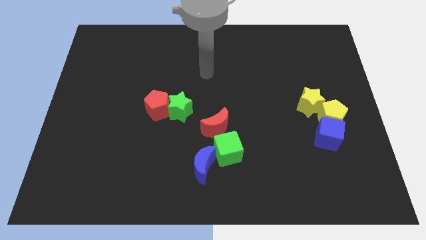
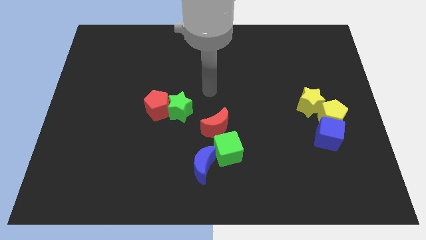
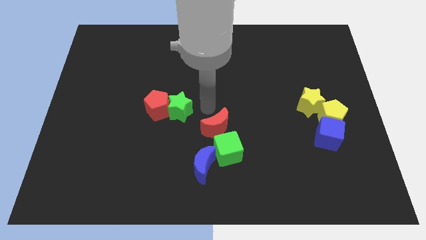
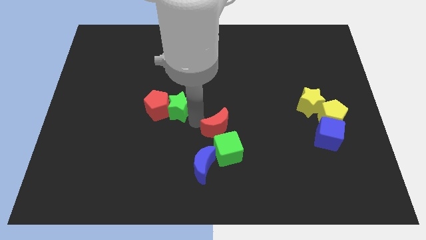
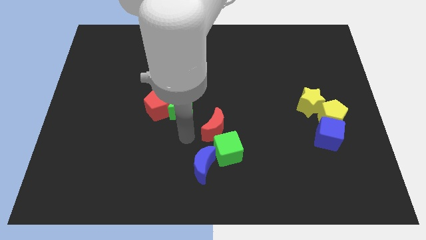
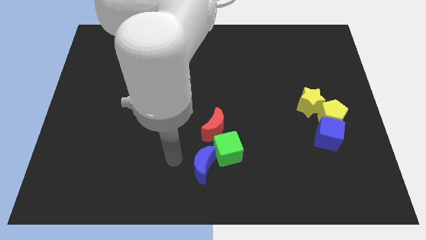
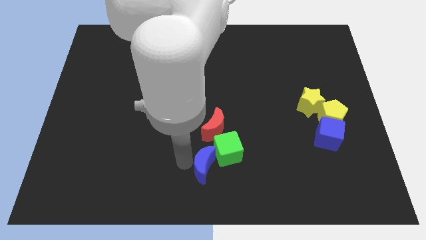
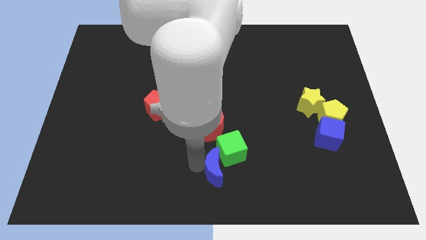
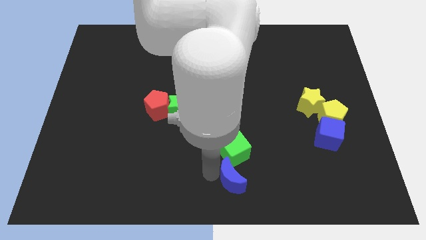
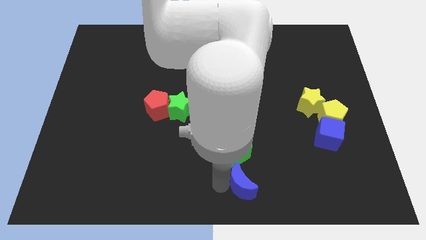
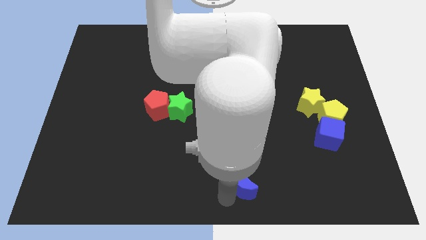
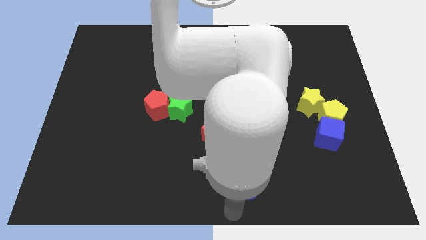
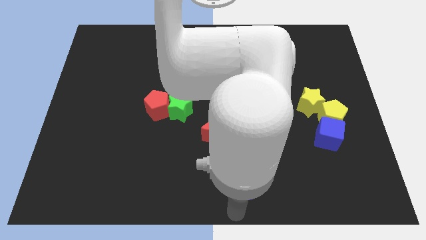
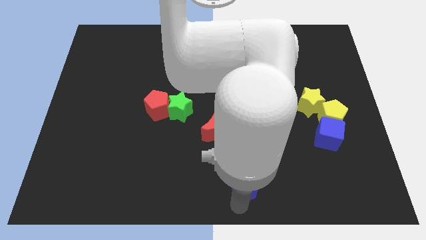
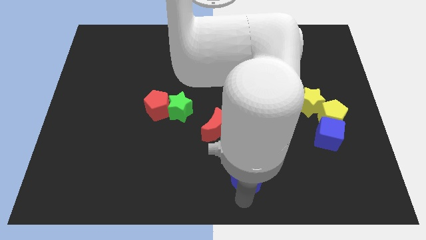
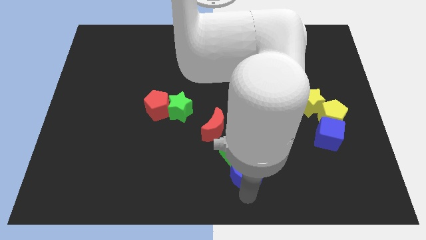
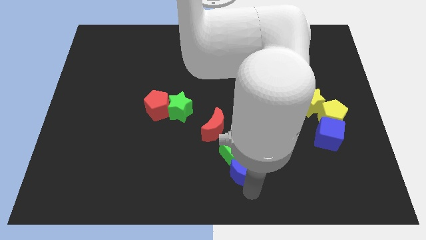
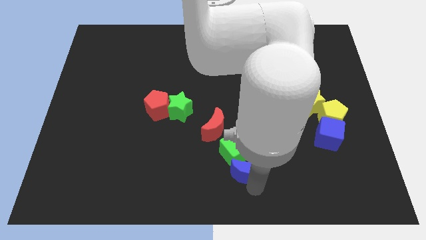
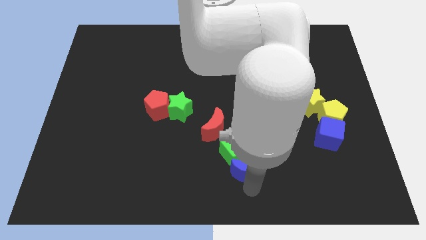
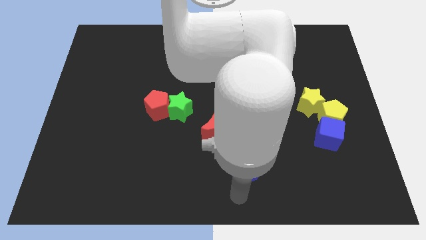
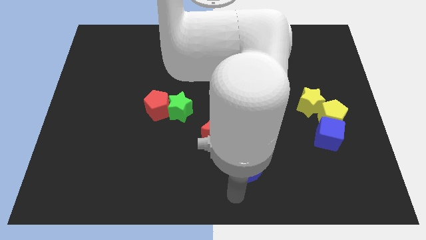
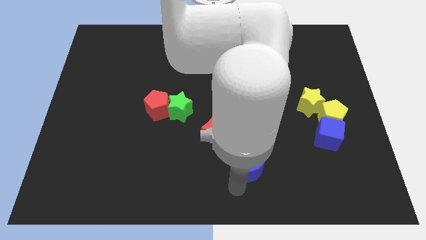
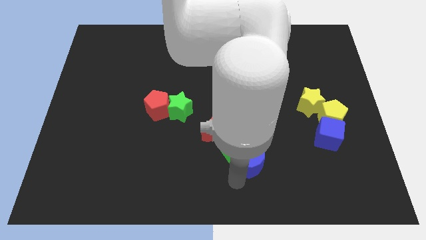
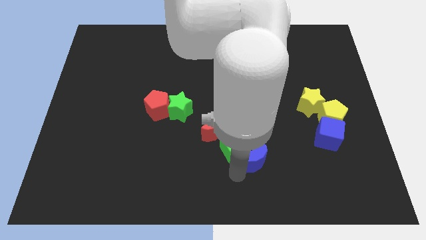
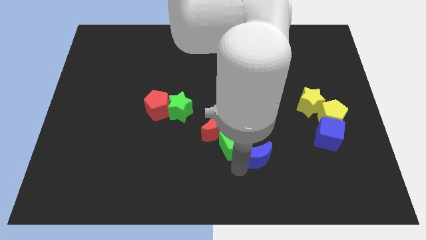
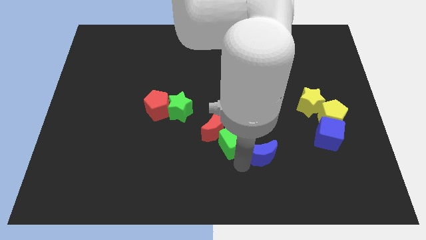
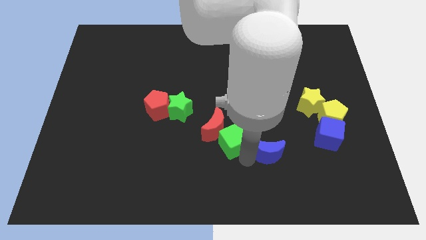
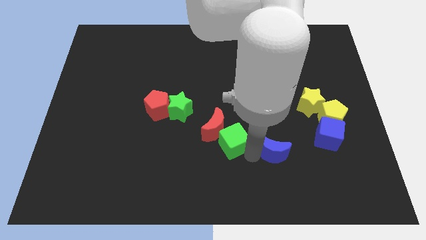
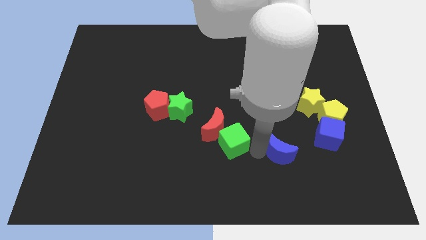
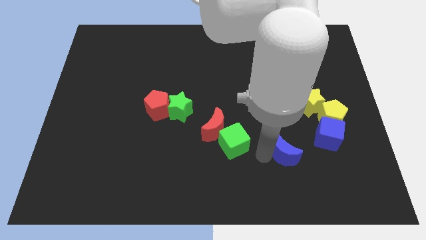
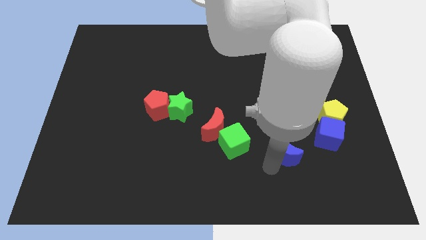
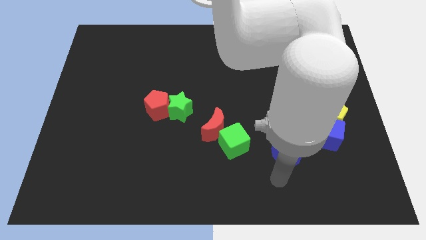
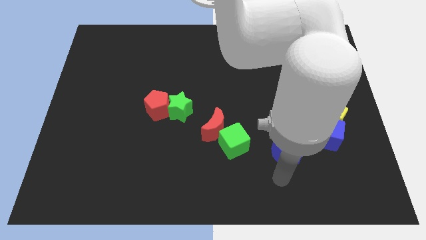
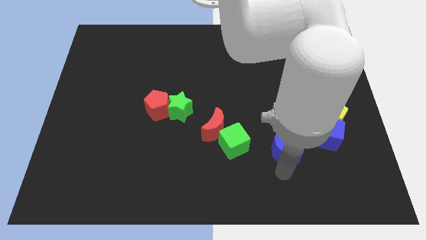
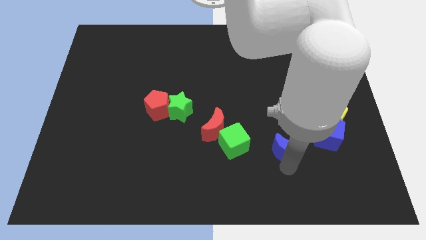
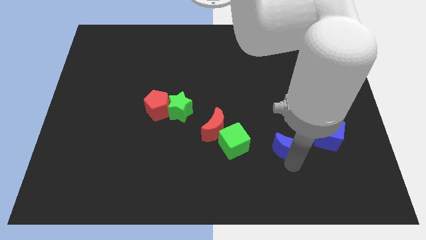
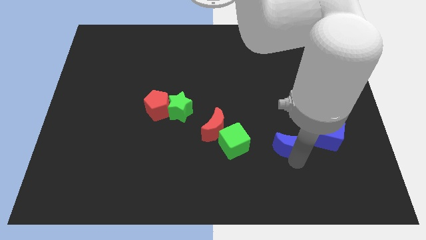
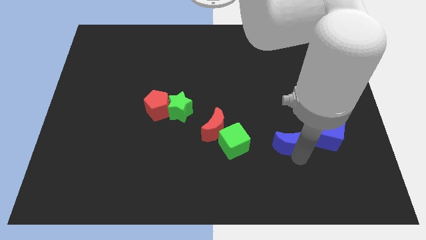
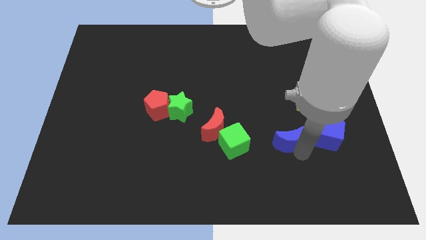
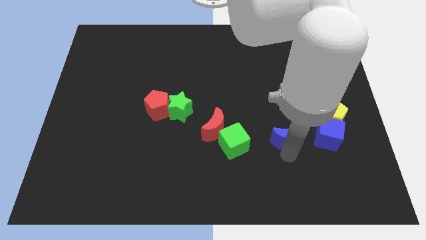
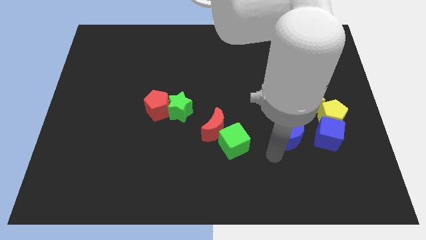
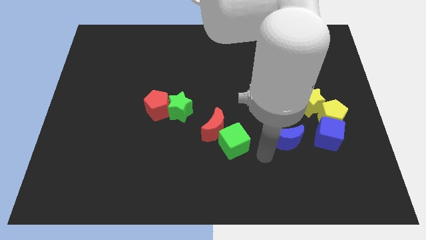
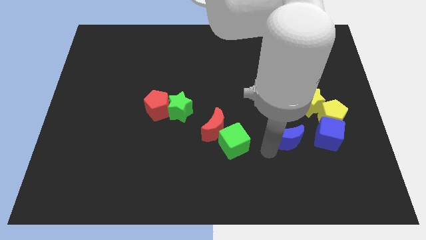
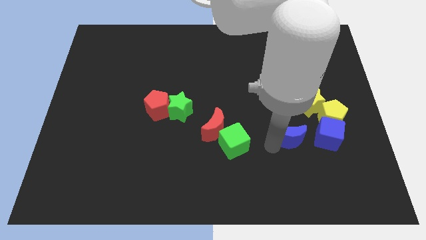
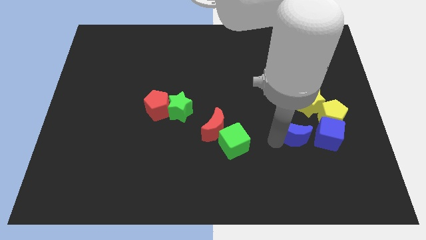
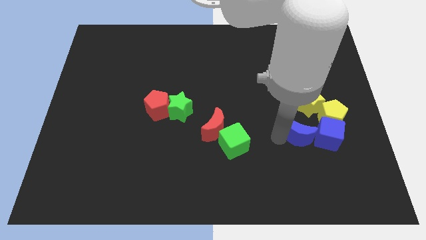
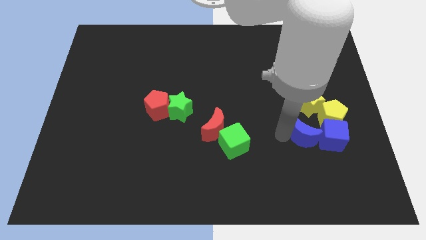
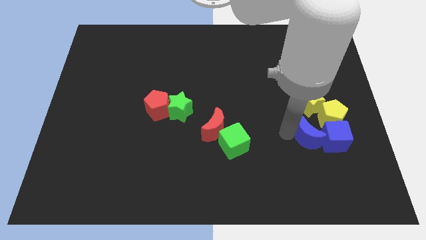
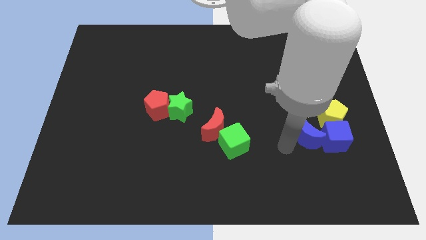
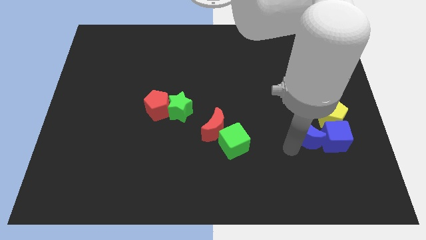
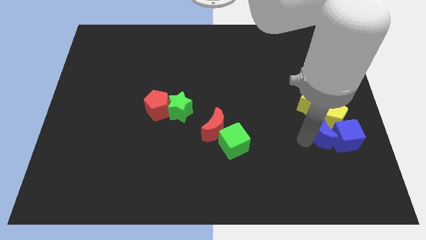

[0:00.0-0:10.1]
move the blue moon towards the yellow pentagon

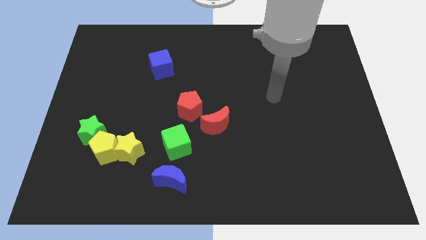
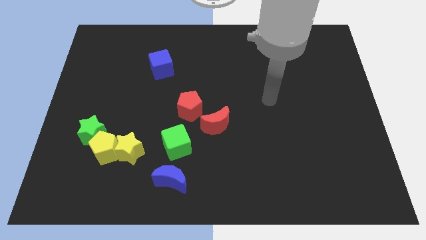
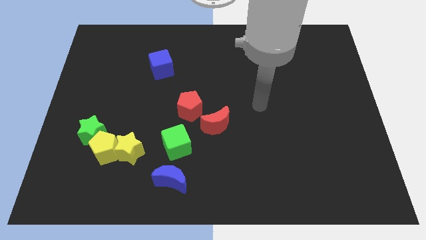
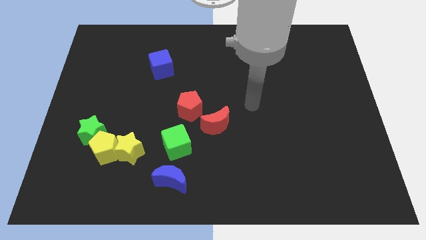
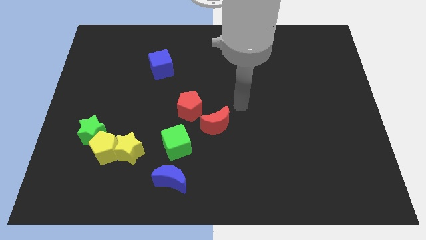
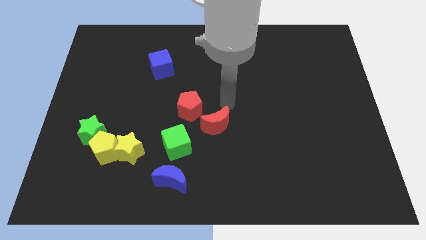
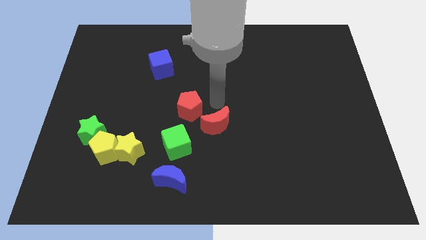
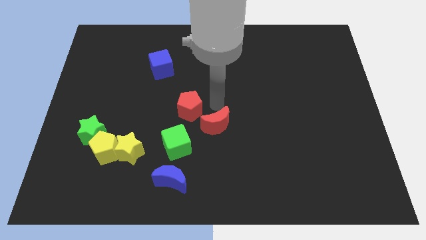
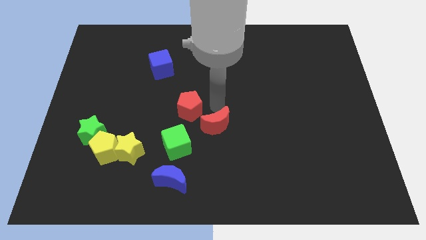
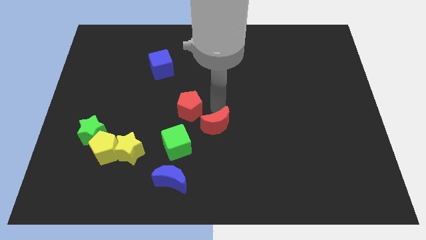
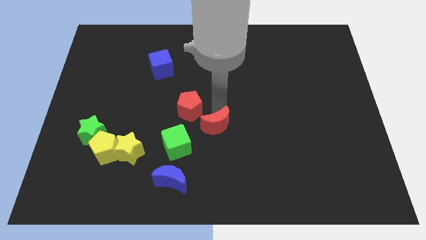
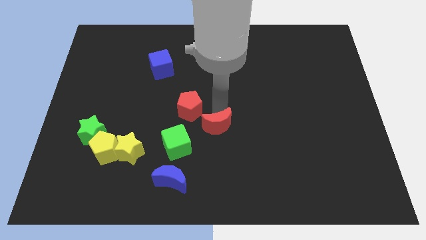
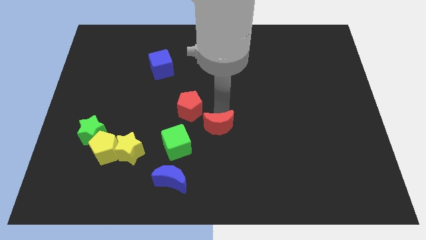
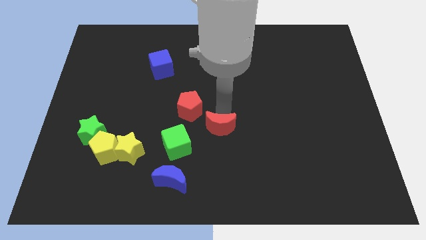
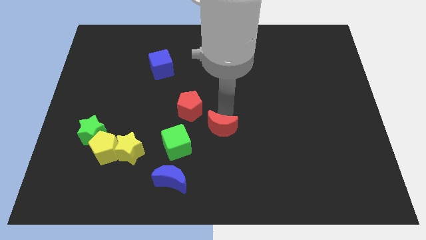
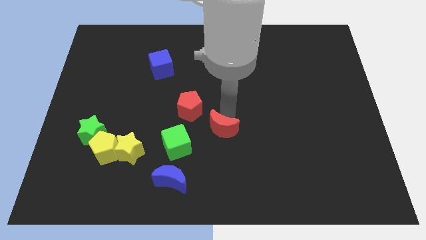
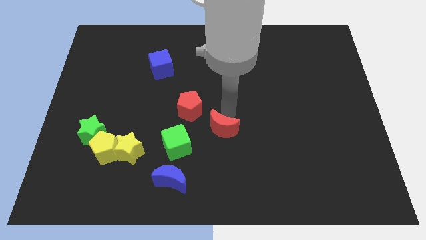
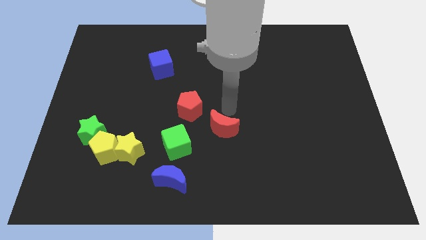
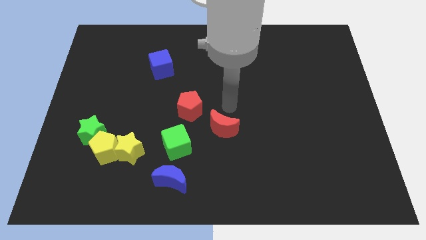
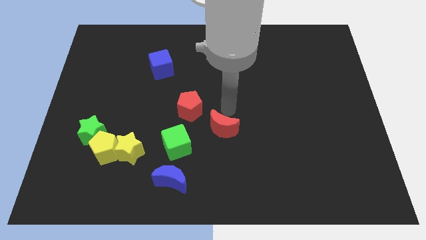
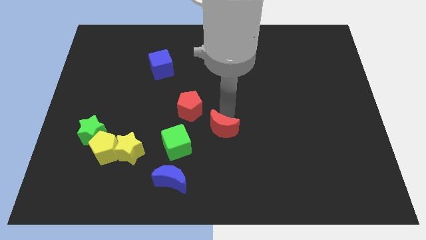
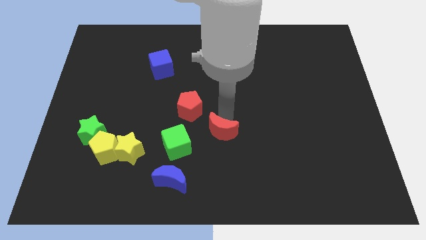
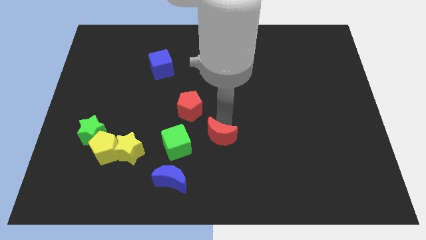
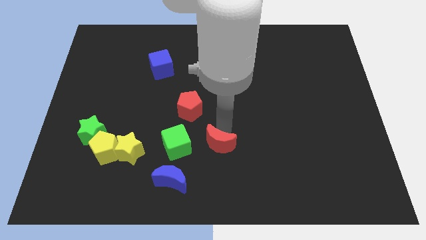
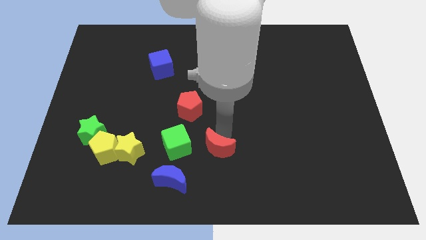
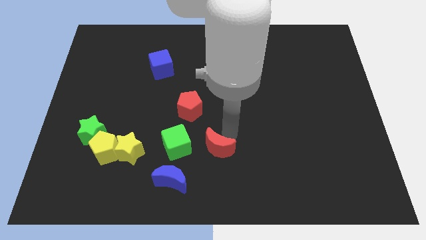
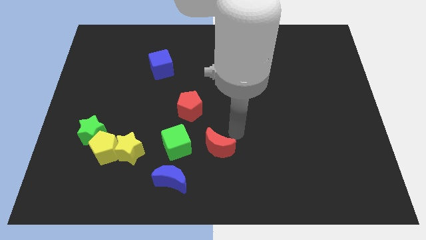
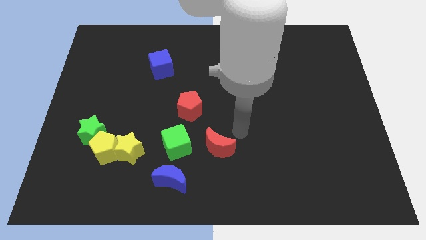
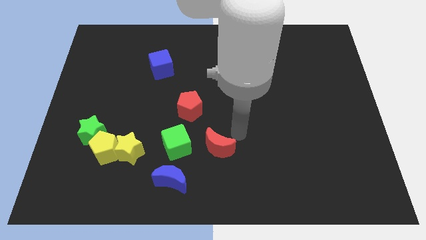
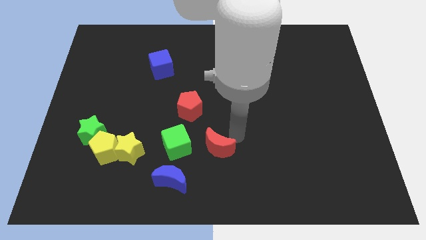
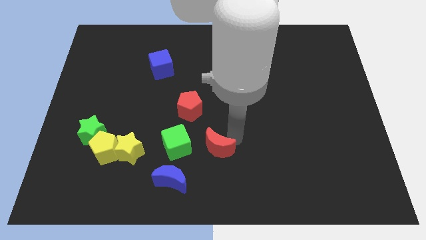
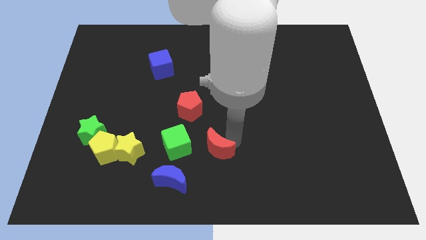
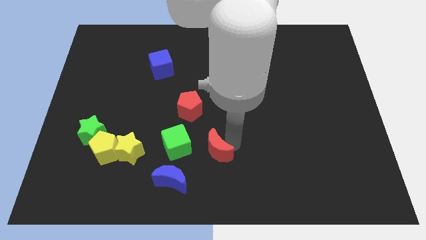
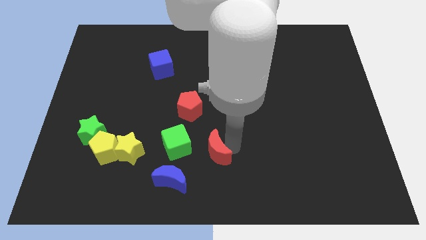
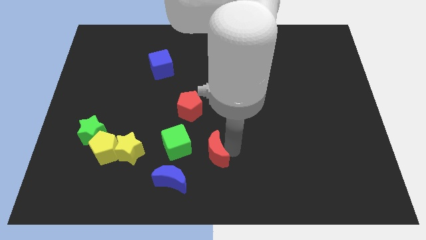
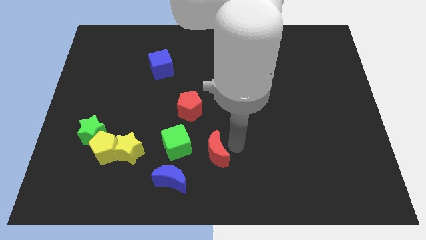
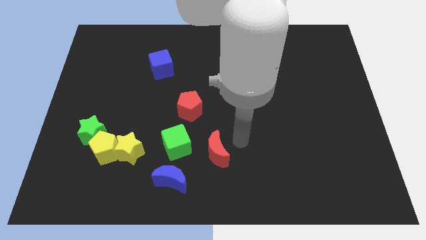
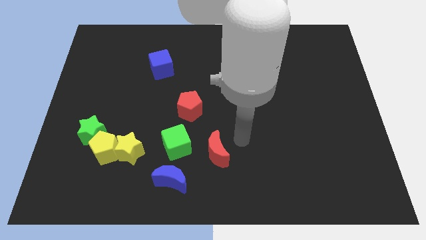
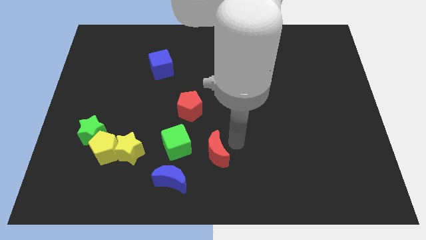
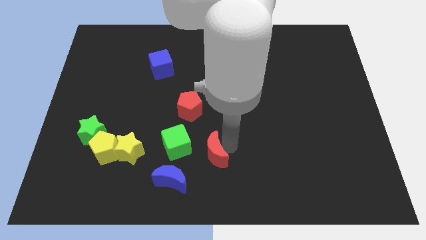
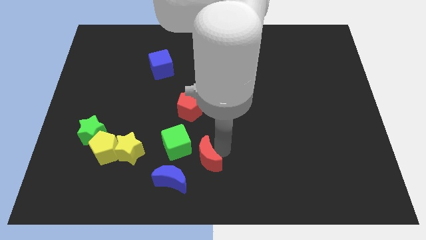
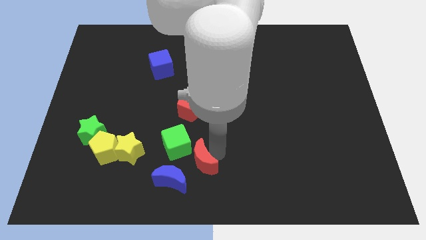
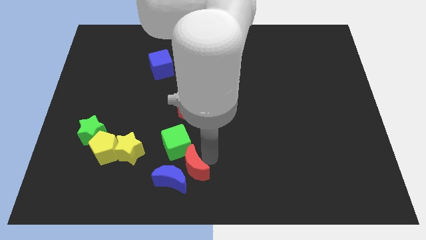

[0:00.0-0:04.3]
move the red moon towards the blue moon
